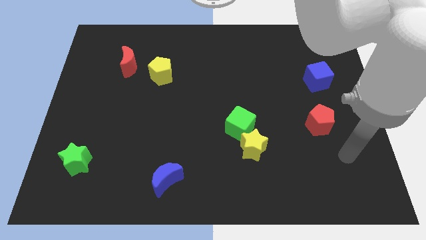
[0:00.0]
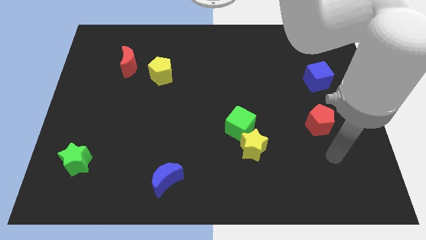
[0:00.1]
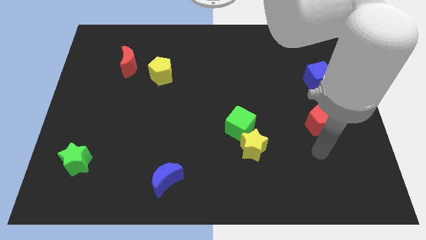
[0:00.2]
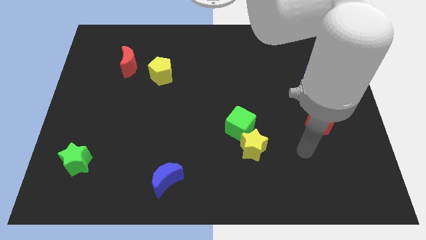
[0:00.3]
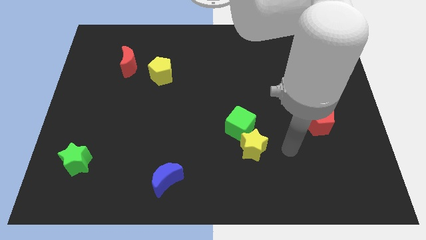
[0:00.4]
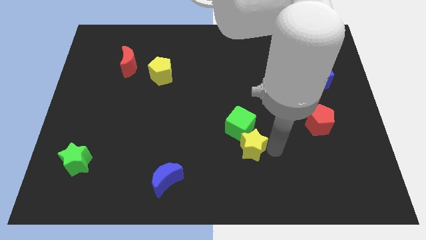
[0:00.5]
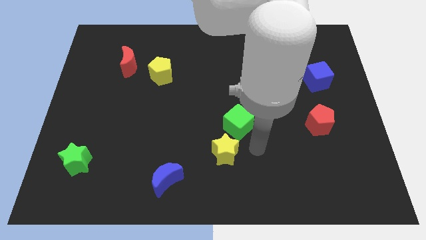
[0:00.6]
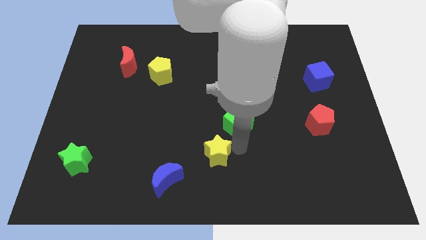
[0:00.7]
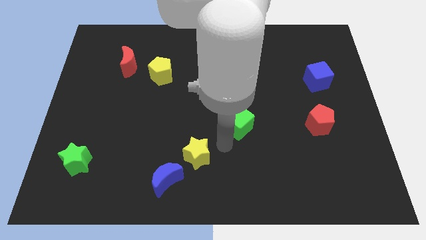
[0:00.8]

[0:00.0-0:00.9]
move the green cube away from the yellow star

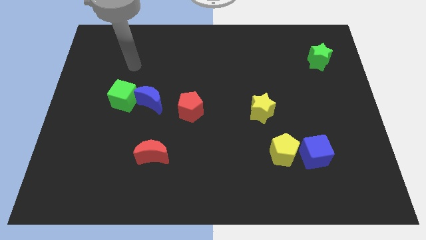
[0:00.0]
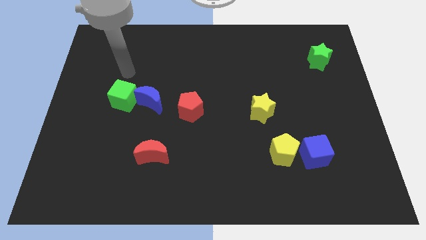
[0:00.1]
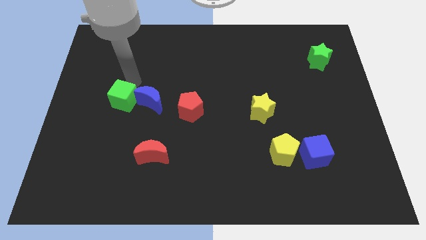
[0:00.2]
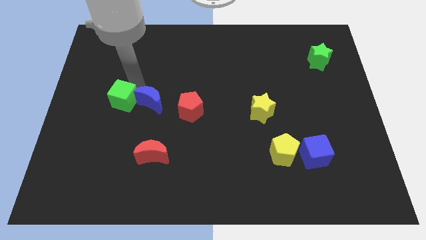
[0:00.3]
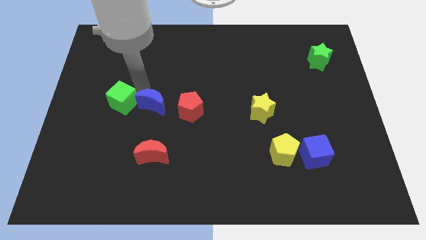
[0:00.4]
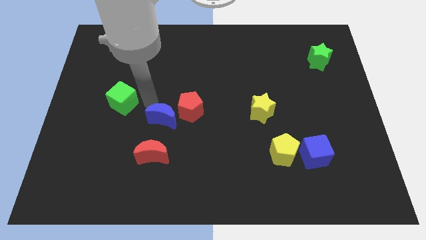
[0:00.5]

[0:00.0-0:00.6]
separate the green cube from the blue moon

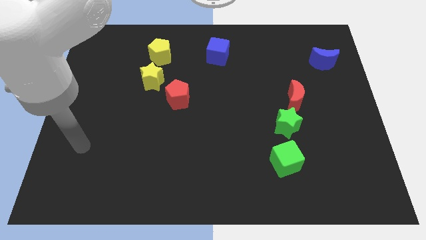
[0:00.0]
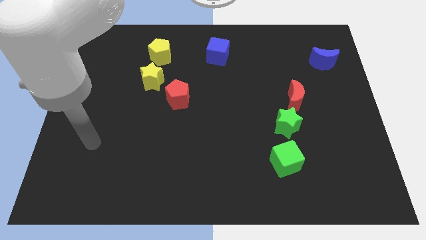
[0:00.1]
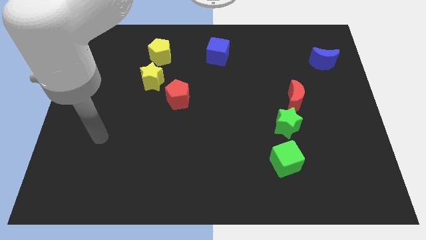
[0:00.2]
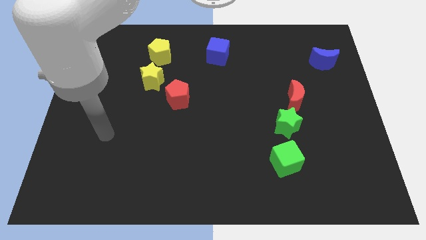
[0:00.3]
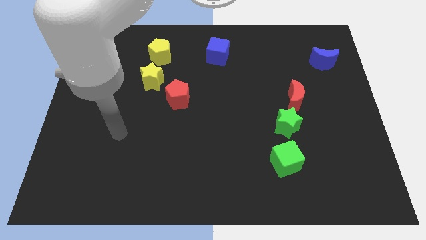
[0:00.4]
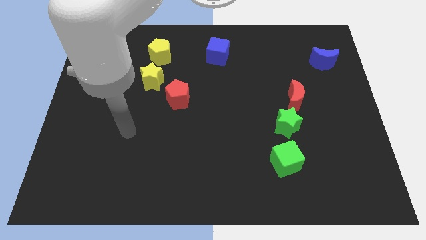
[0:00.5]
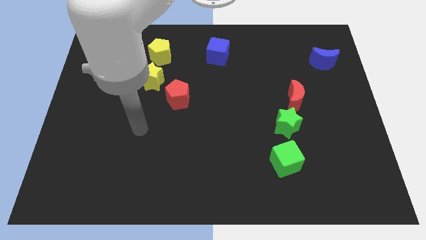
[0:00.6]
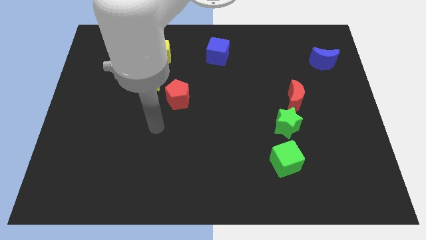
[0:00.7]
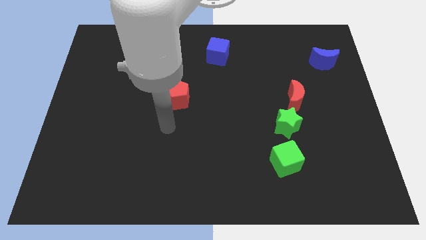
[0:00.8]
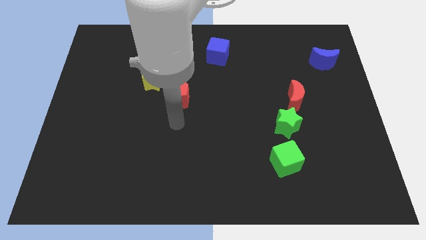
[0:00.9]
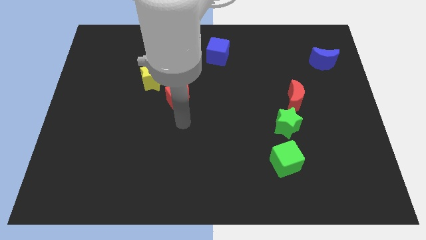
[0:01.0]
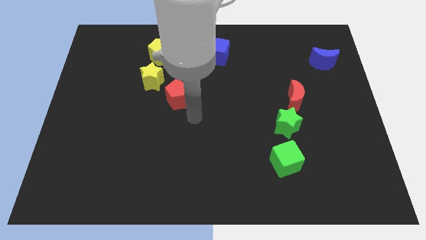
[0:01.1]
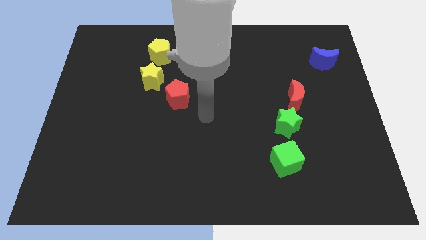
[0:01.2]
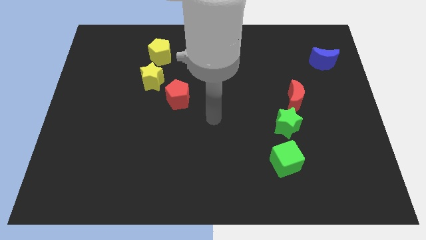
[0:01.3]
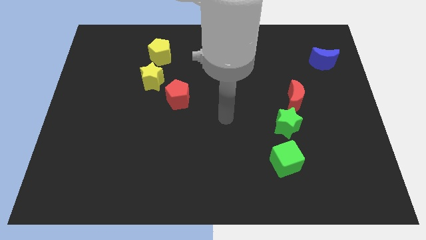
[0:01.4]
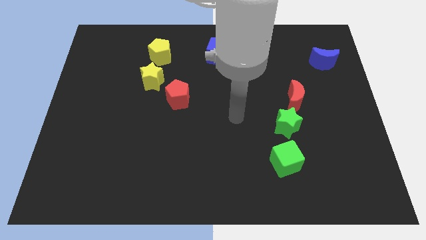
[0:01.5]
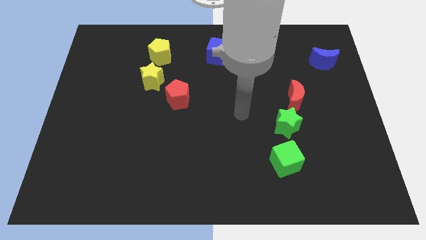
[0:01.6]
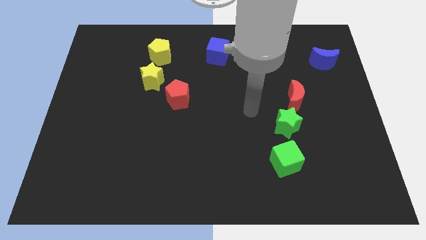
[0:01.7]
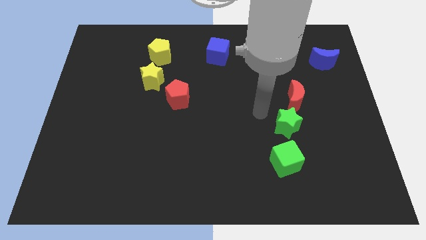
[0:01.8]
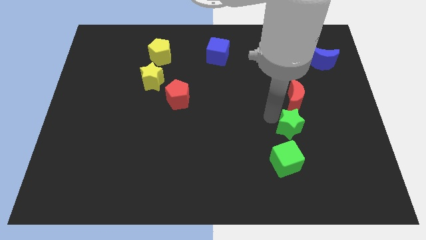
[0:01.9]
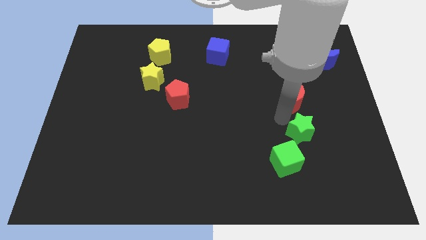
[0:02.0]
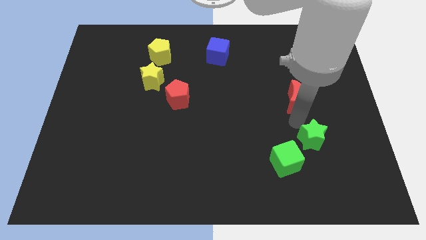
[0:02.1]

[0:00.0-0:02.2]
pull the red moon apart from the green star

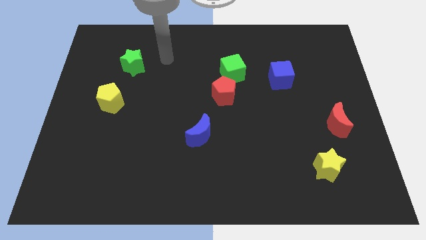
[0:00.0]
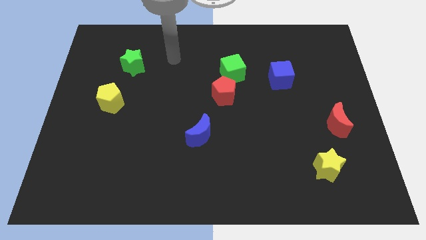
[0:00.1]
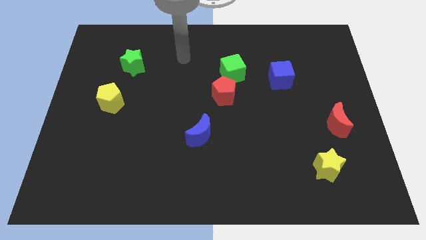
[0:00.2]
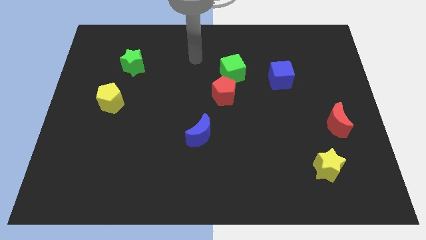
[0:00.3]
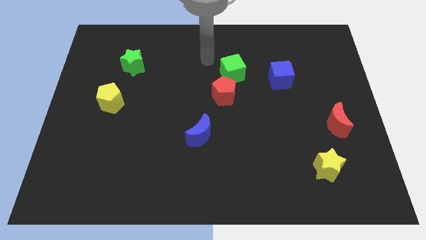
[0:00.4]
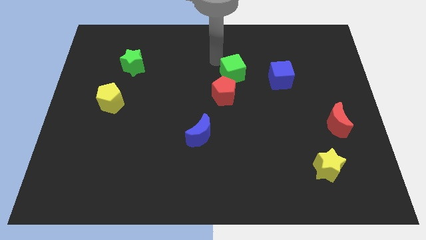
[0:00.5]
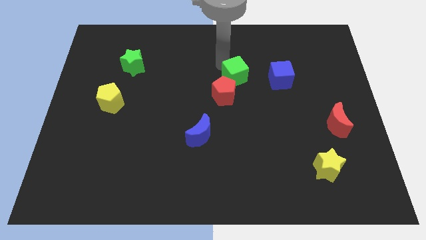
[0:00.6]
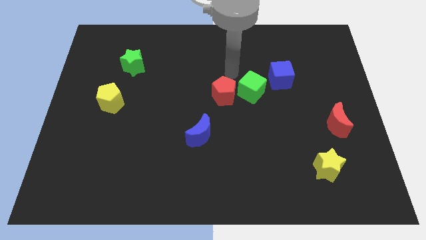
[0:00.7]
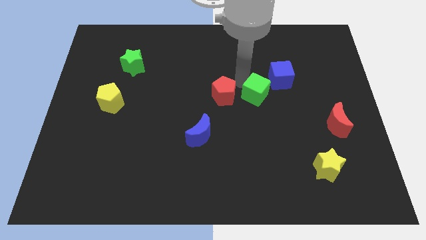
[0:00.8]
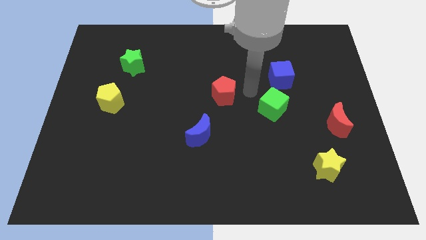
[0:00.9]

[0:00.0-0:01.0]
pull the red pentagon apart from the green cube

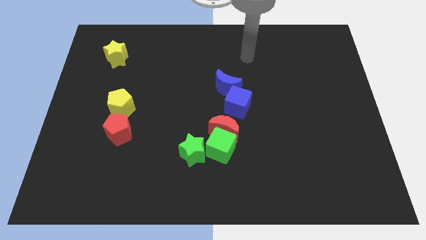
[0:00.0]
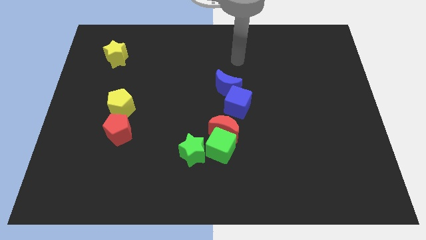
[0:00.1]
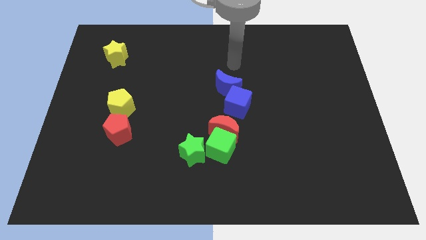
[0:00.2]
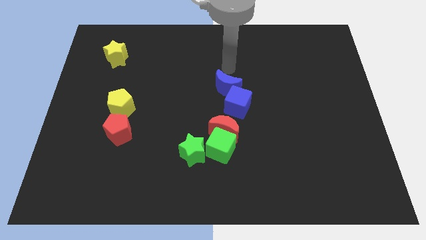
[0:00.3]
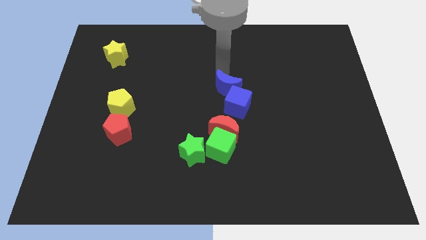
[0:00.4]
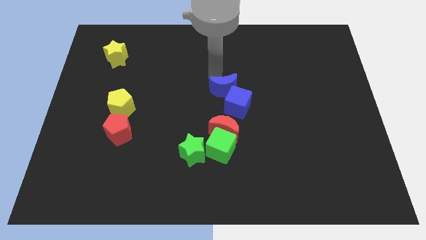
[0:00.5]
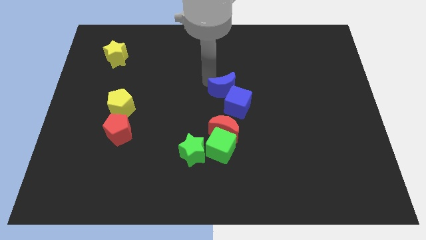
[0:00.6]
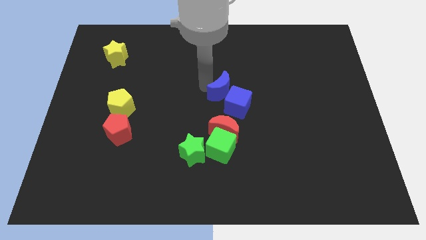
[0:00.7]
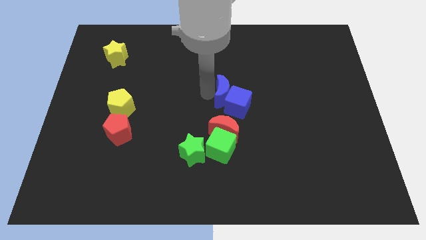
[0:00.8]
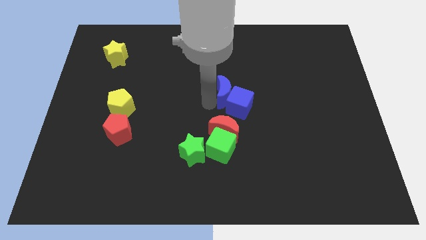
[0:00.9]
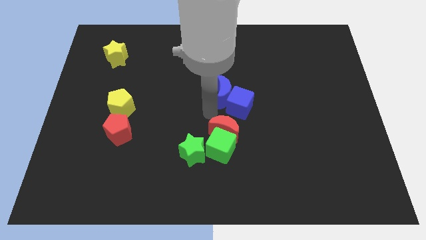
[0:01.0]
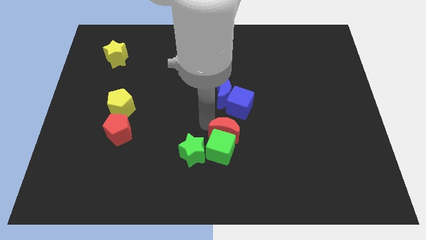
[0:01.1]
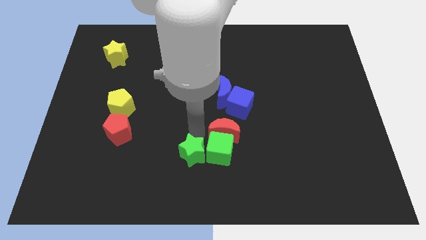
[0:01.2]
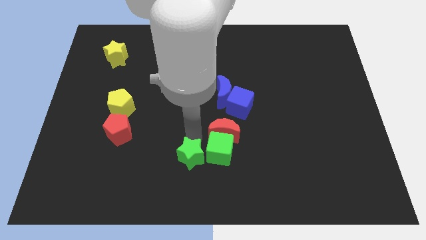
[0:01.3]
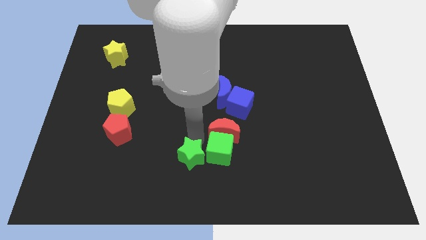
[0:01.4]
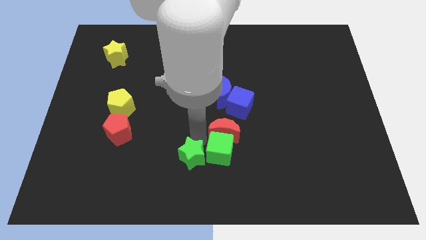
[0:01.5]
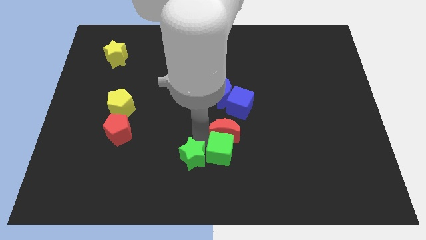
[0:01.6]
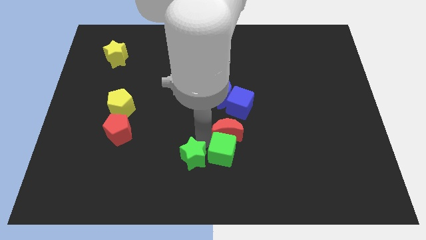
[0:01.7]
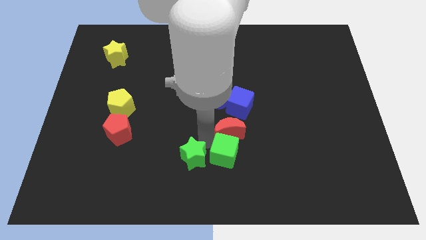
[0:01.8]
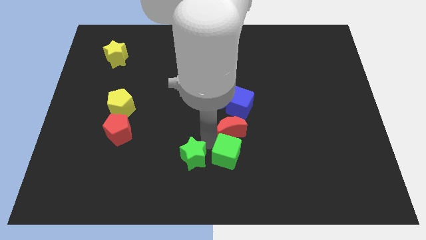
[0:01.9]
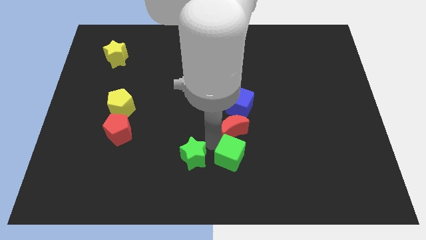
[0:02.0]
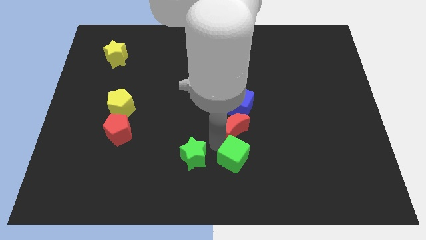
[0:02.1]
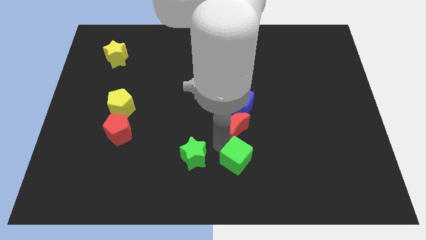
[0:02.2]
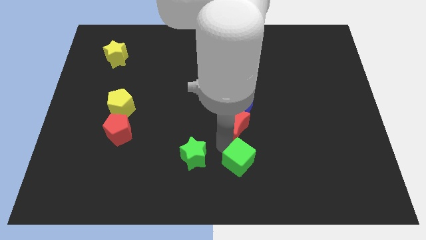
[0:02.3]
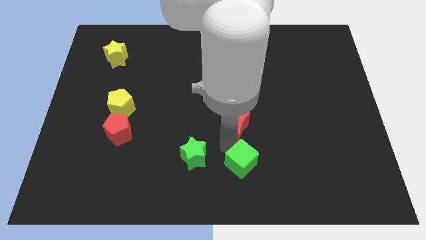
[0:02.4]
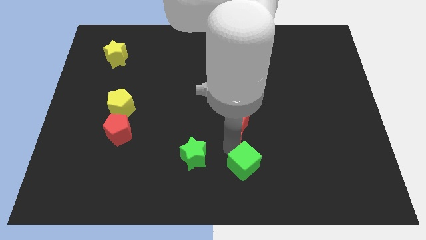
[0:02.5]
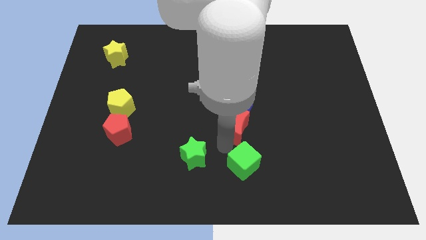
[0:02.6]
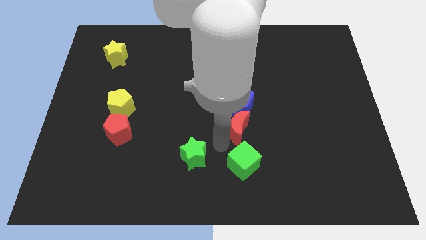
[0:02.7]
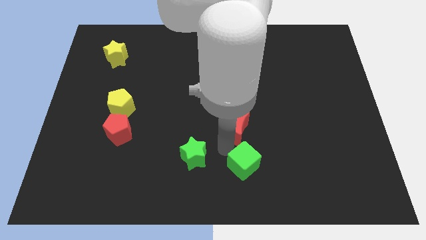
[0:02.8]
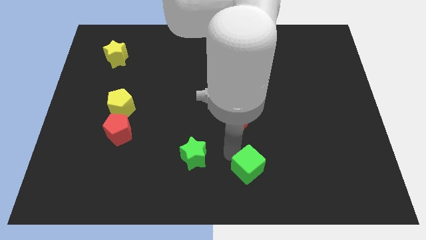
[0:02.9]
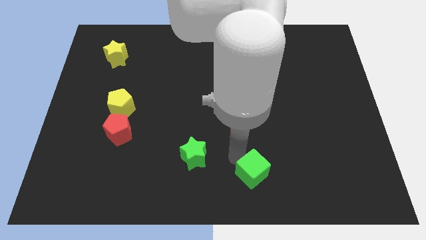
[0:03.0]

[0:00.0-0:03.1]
separate the green cube from the red moon and green star

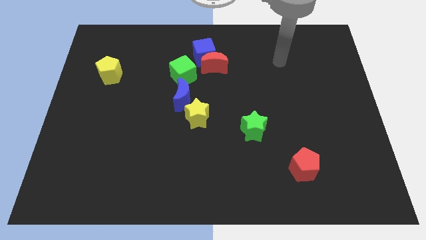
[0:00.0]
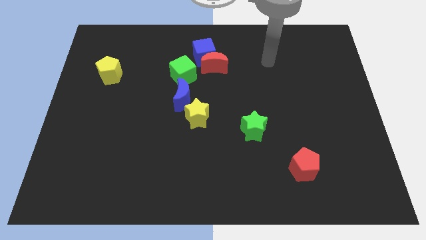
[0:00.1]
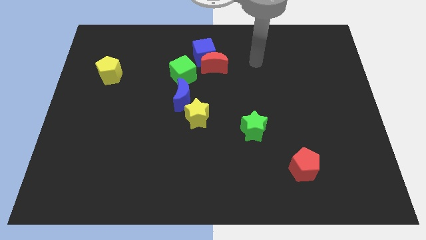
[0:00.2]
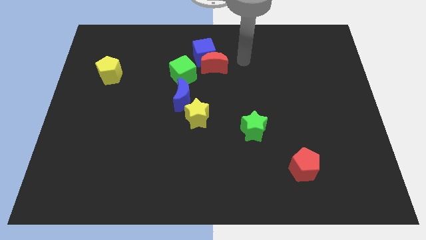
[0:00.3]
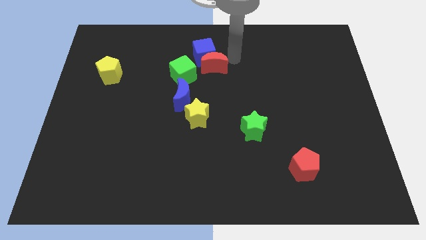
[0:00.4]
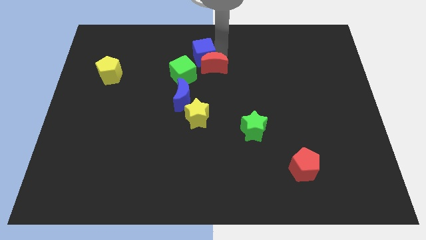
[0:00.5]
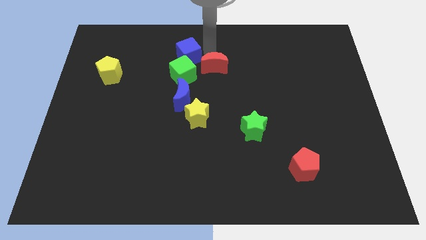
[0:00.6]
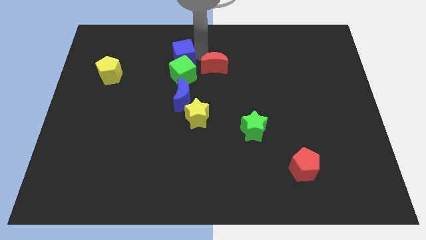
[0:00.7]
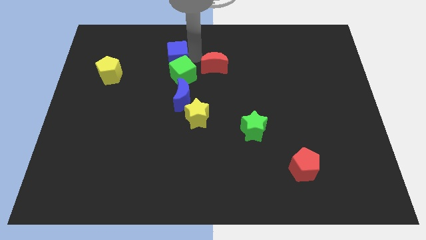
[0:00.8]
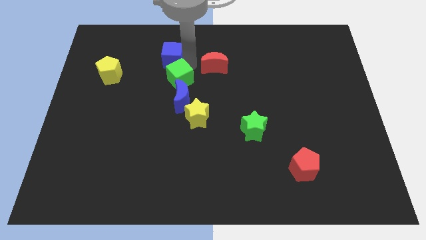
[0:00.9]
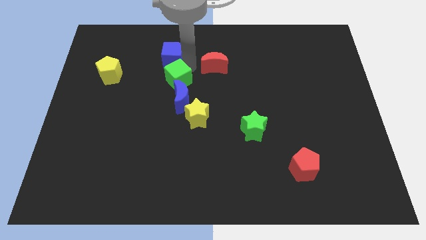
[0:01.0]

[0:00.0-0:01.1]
pull the red moon apart from the blue cube and green cube

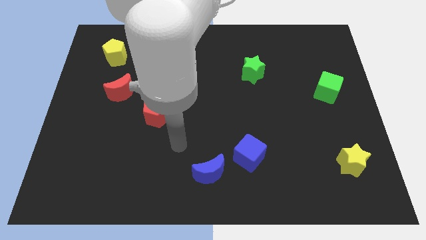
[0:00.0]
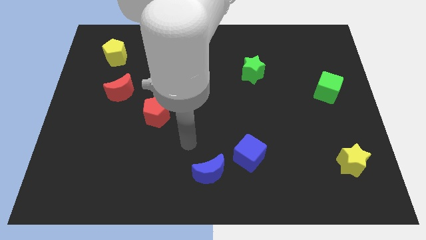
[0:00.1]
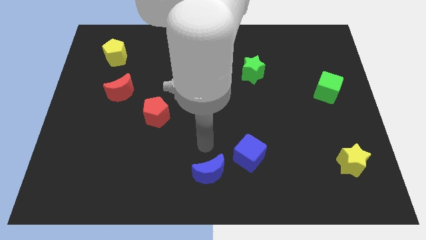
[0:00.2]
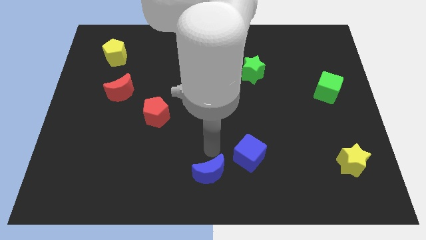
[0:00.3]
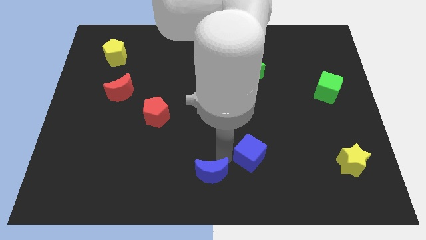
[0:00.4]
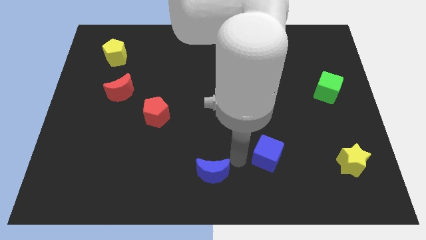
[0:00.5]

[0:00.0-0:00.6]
pull the blue moon apart from the blue cube
